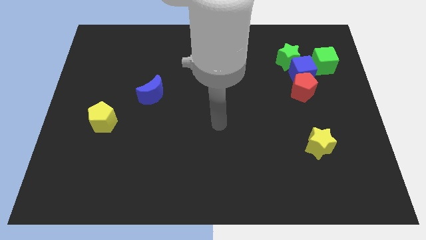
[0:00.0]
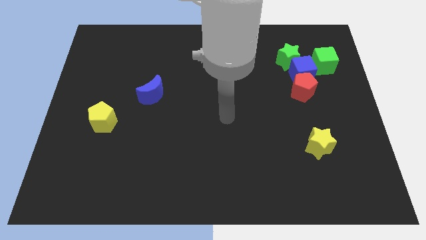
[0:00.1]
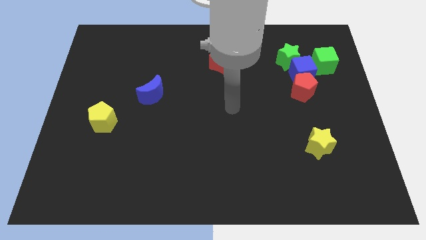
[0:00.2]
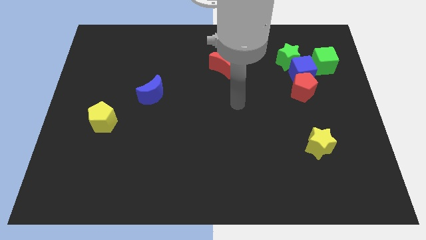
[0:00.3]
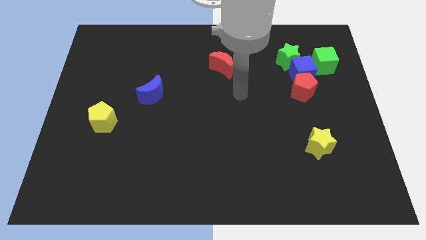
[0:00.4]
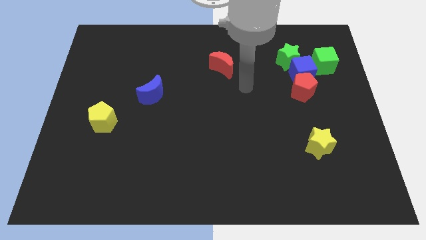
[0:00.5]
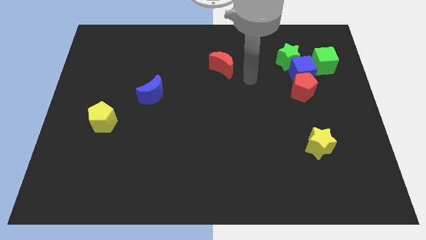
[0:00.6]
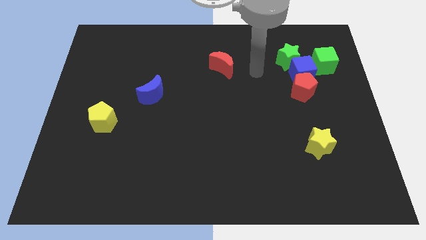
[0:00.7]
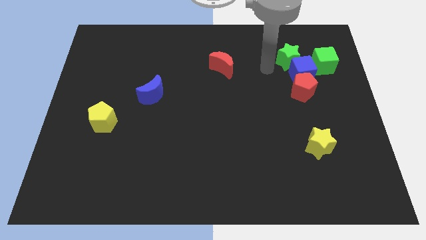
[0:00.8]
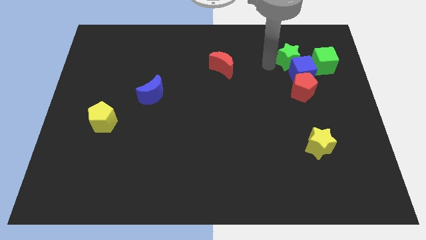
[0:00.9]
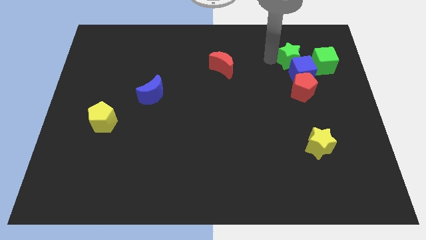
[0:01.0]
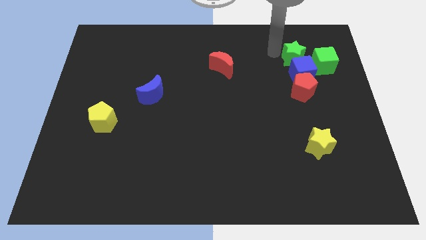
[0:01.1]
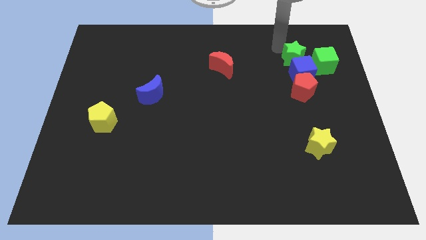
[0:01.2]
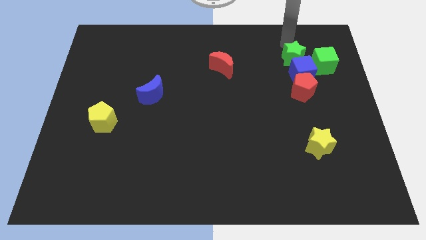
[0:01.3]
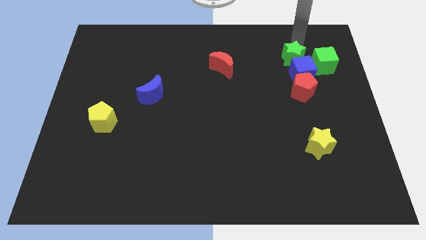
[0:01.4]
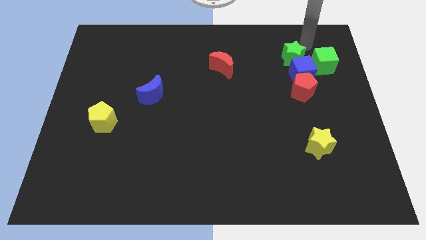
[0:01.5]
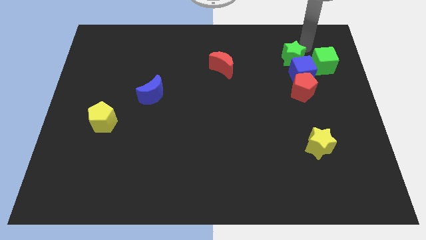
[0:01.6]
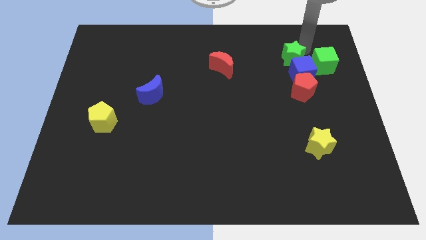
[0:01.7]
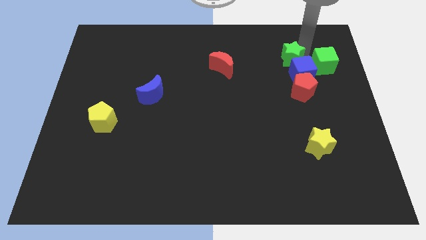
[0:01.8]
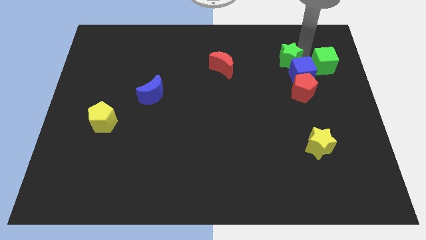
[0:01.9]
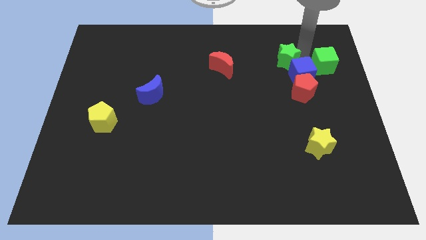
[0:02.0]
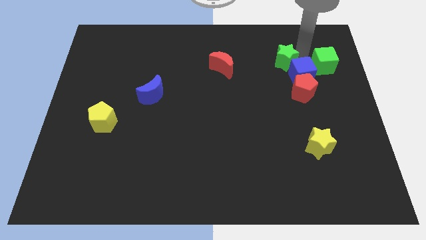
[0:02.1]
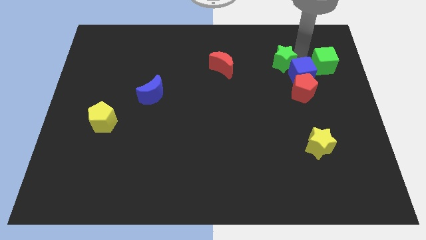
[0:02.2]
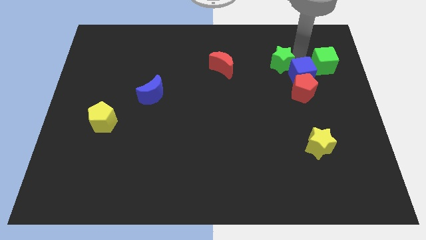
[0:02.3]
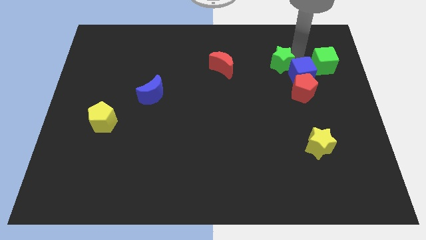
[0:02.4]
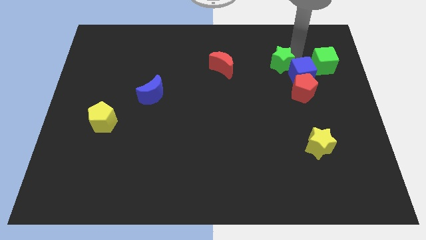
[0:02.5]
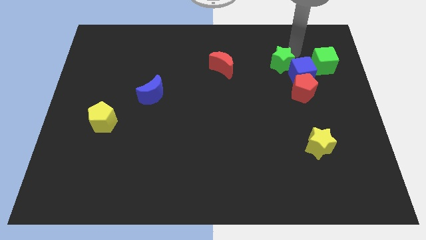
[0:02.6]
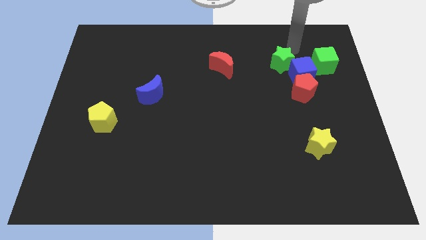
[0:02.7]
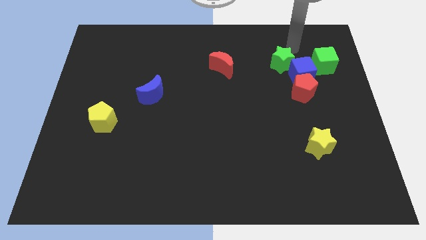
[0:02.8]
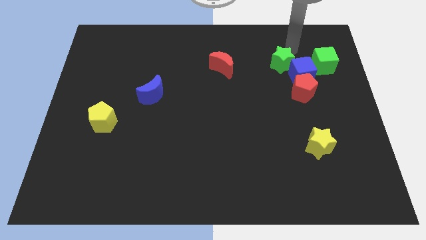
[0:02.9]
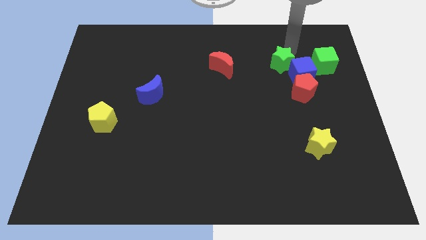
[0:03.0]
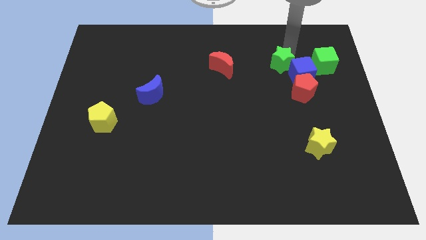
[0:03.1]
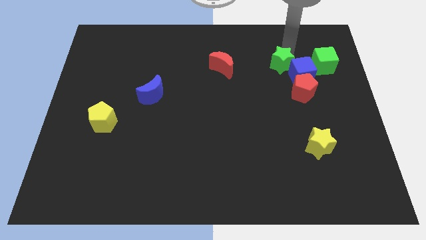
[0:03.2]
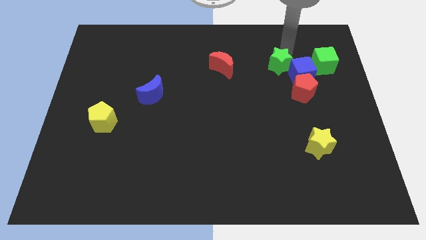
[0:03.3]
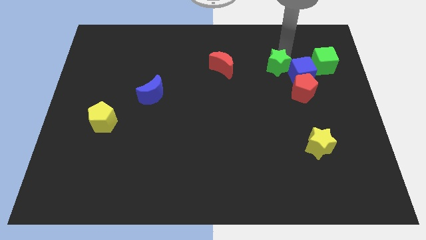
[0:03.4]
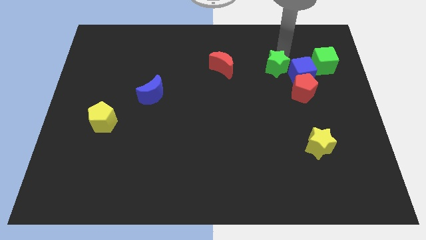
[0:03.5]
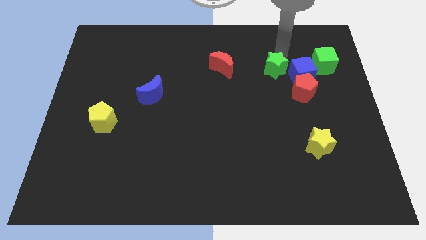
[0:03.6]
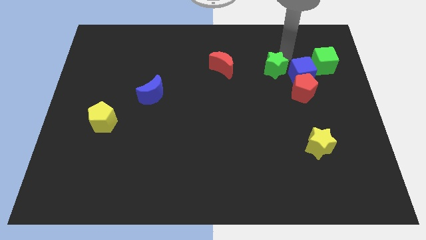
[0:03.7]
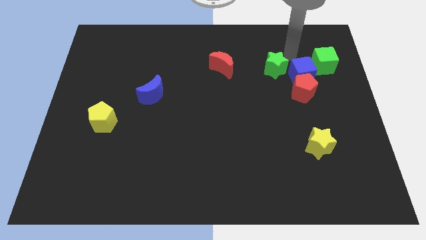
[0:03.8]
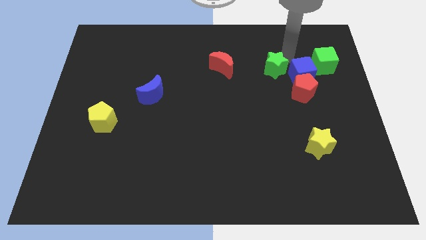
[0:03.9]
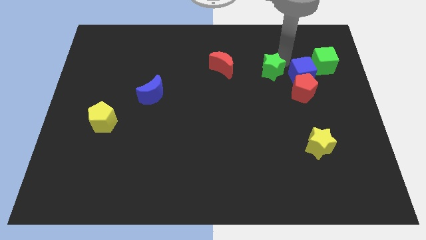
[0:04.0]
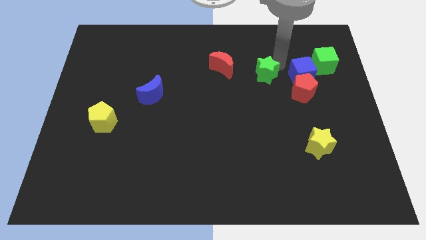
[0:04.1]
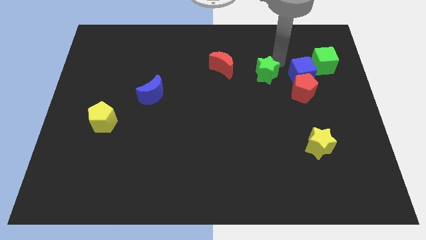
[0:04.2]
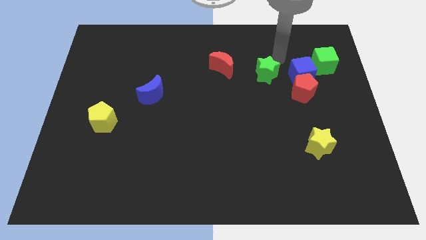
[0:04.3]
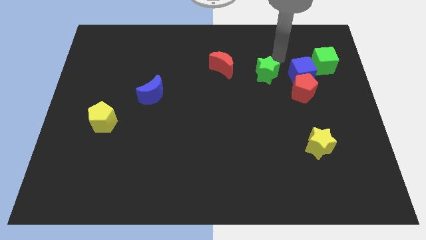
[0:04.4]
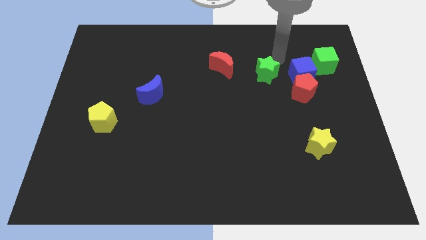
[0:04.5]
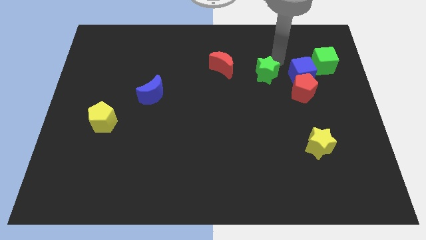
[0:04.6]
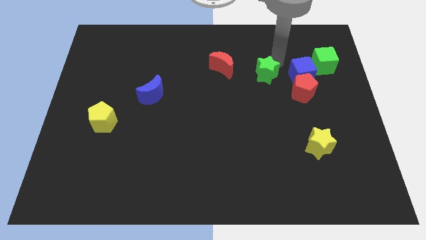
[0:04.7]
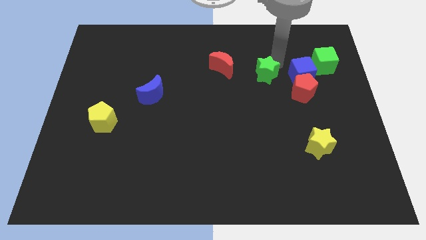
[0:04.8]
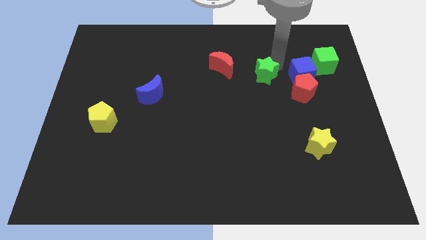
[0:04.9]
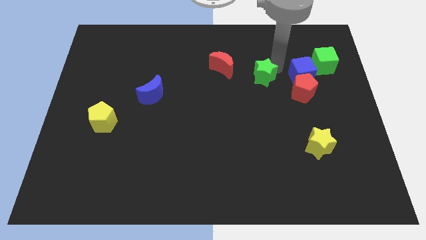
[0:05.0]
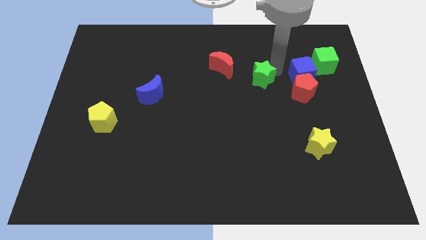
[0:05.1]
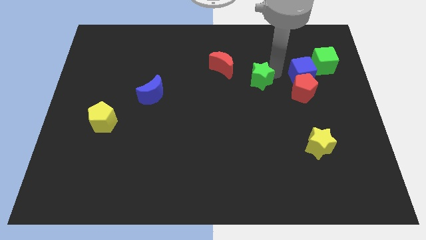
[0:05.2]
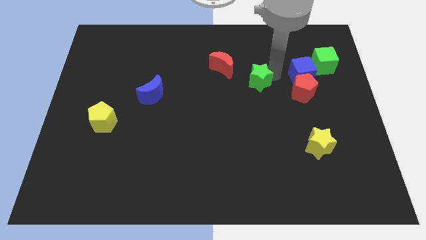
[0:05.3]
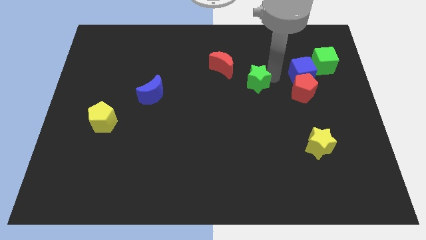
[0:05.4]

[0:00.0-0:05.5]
push the green star to the center
